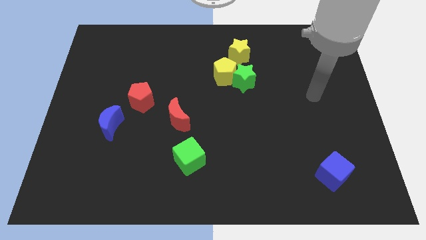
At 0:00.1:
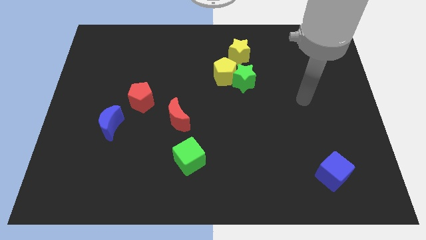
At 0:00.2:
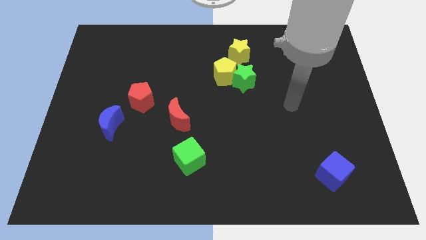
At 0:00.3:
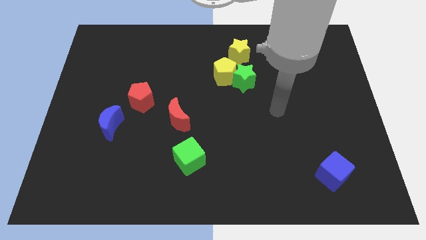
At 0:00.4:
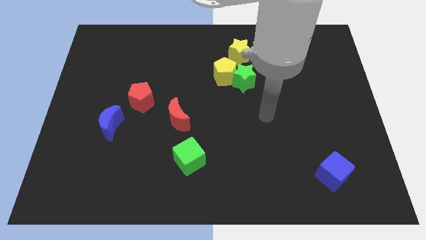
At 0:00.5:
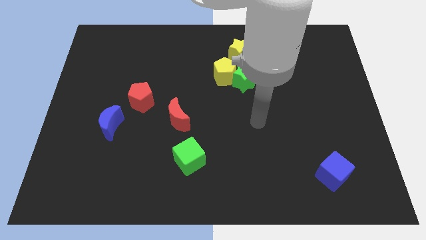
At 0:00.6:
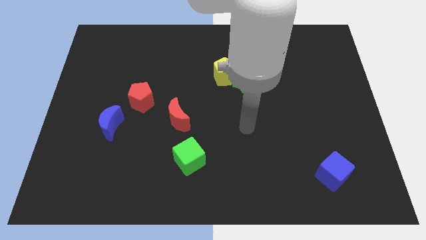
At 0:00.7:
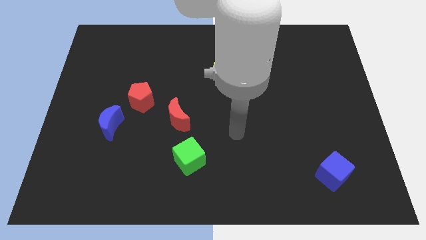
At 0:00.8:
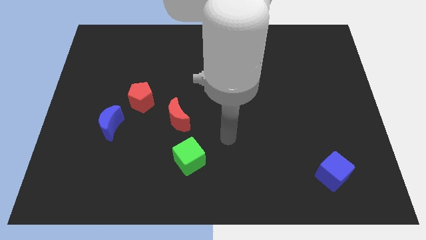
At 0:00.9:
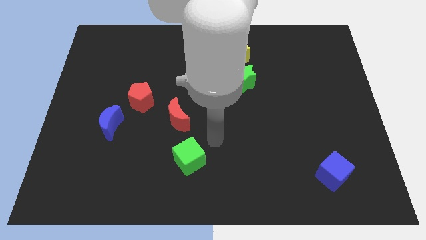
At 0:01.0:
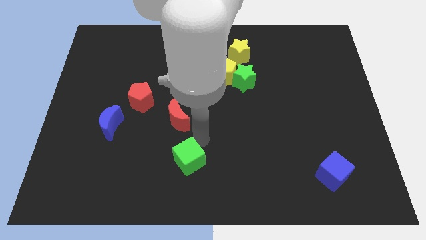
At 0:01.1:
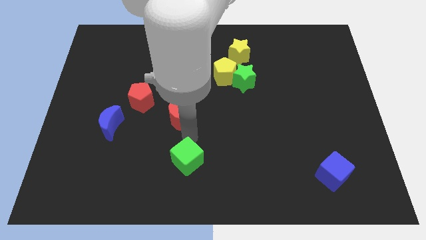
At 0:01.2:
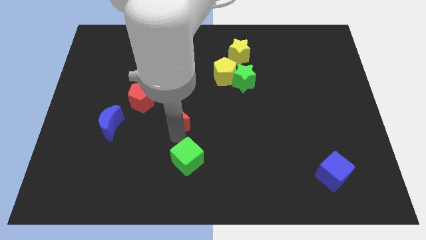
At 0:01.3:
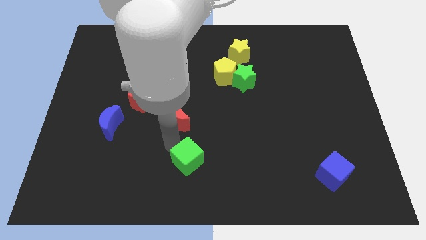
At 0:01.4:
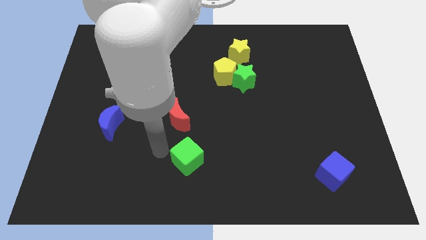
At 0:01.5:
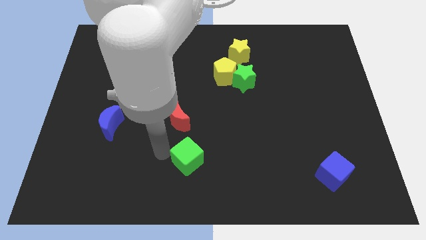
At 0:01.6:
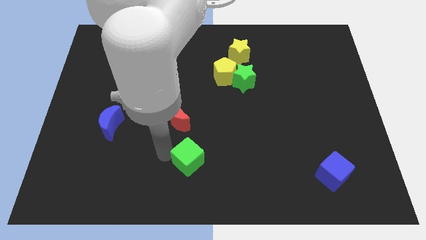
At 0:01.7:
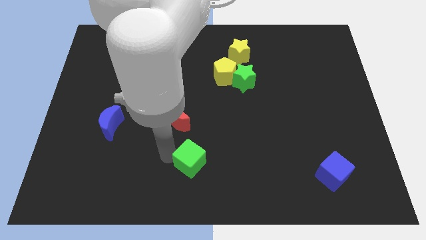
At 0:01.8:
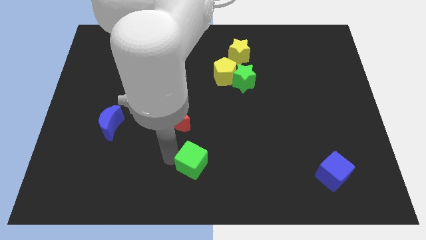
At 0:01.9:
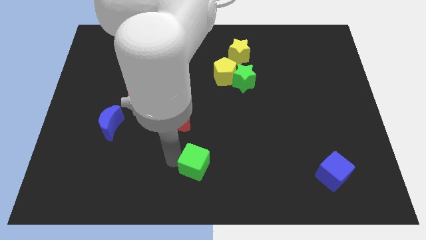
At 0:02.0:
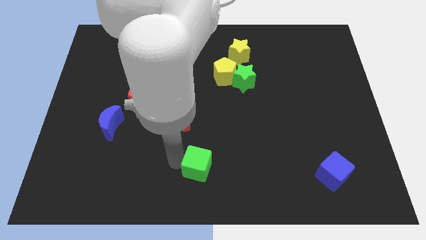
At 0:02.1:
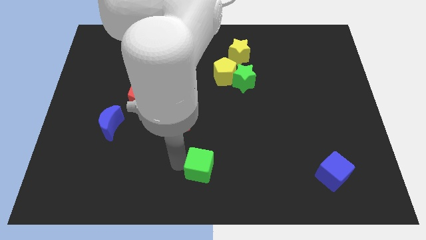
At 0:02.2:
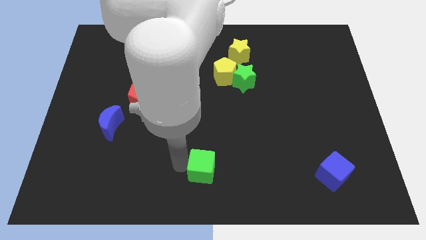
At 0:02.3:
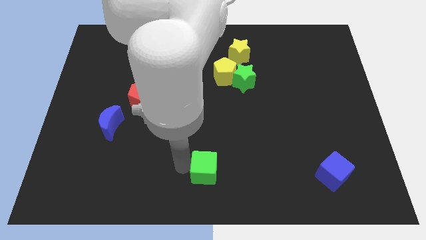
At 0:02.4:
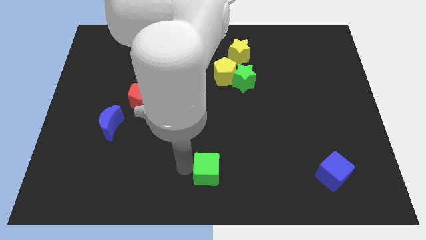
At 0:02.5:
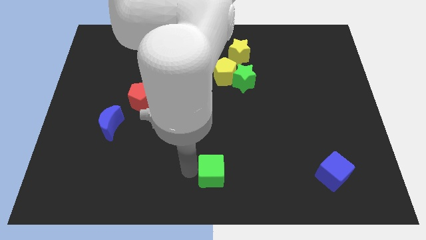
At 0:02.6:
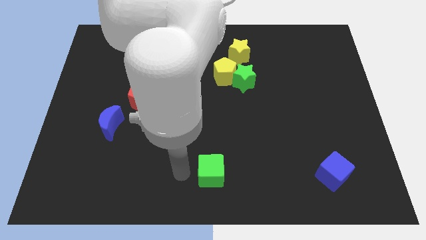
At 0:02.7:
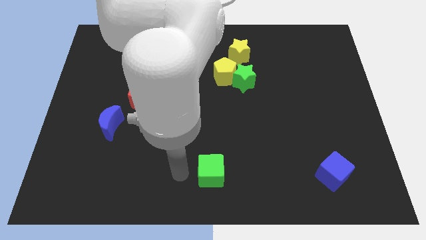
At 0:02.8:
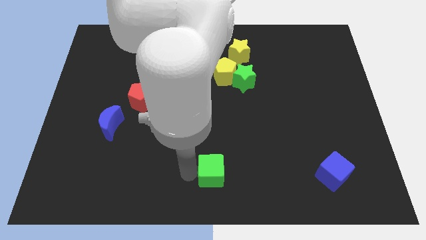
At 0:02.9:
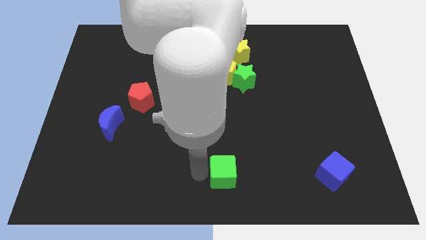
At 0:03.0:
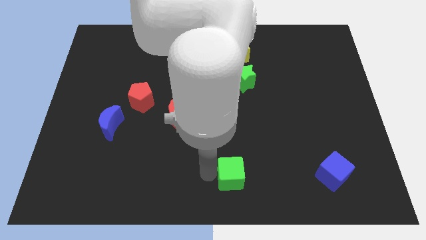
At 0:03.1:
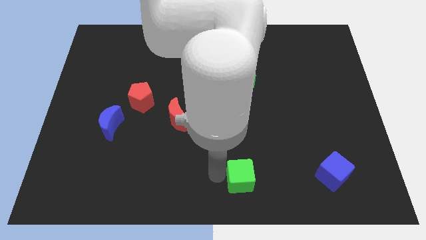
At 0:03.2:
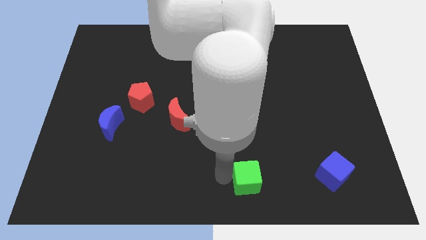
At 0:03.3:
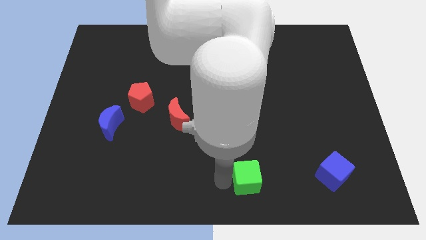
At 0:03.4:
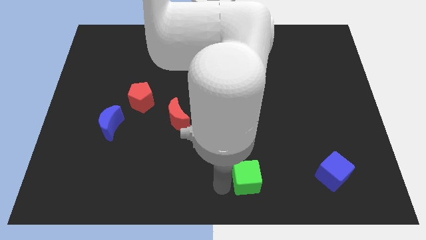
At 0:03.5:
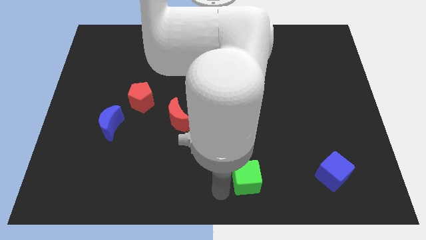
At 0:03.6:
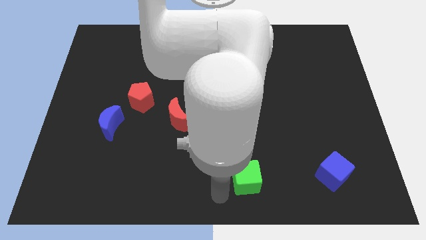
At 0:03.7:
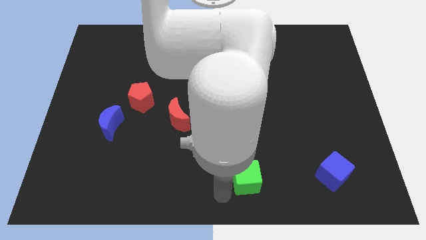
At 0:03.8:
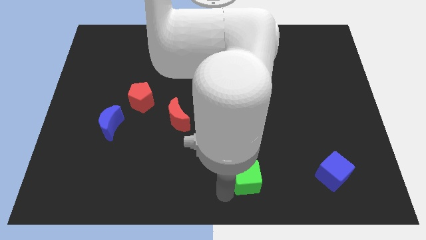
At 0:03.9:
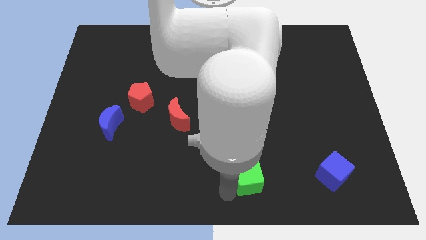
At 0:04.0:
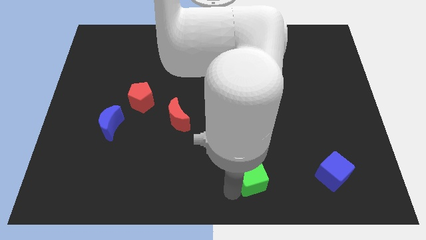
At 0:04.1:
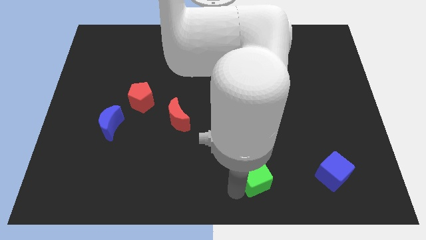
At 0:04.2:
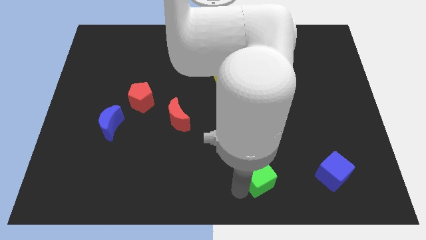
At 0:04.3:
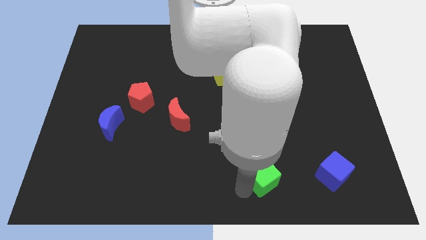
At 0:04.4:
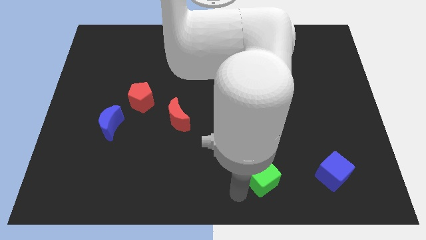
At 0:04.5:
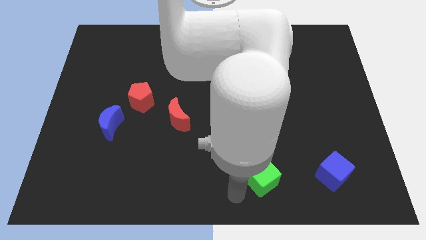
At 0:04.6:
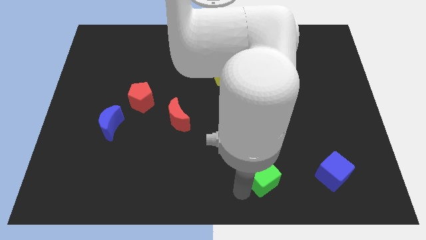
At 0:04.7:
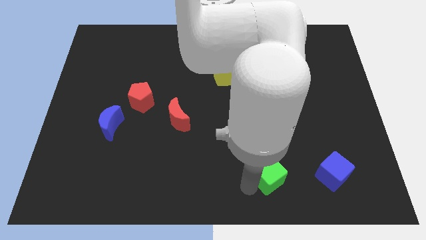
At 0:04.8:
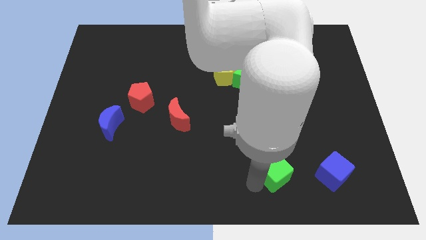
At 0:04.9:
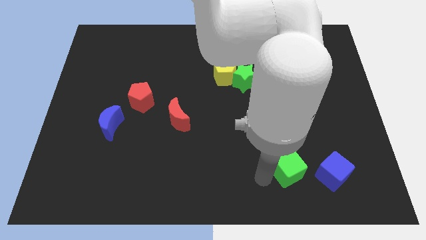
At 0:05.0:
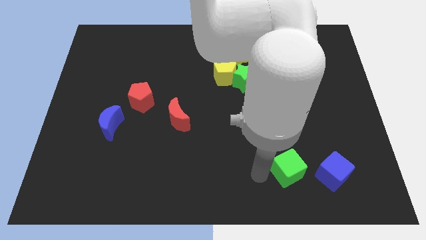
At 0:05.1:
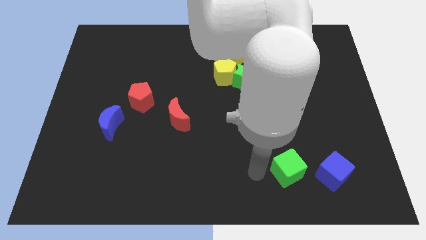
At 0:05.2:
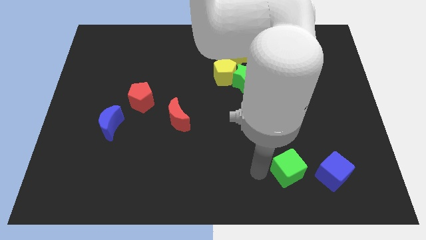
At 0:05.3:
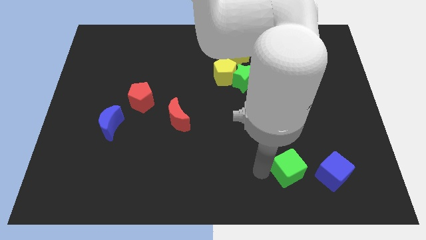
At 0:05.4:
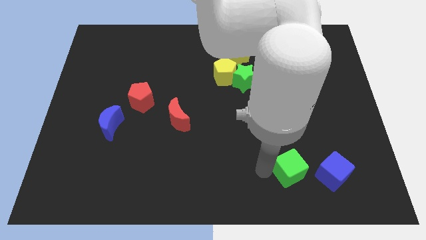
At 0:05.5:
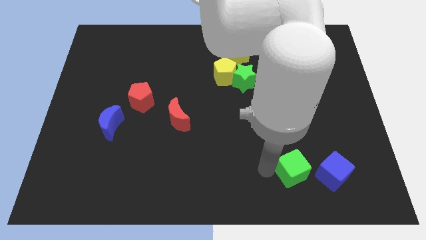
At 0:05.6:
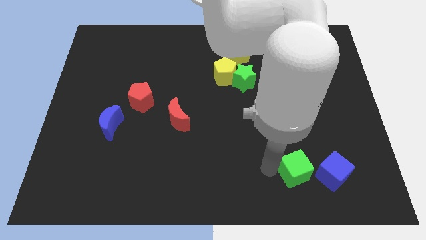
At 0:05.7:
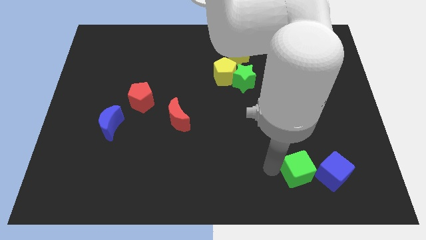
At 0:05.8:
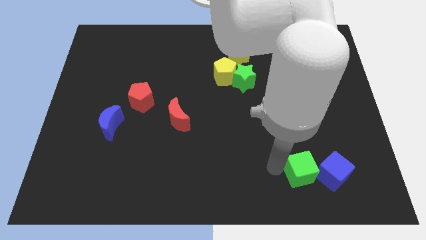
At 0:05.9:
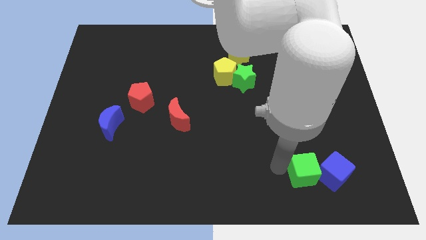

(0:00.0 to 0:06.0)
slide the green cube to the blue cube
